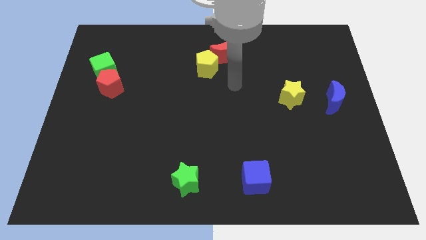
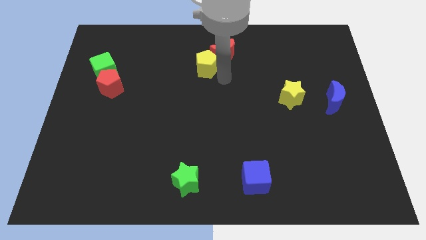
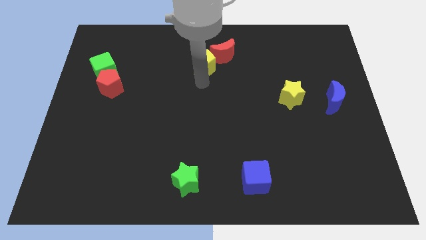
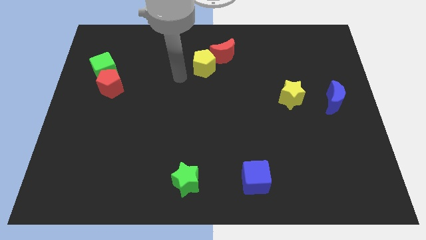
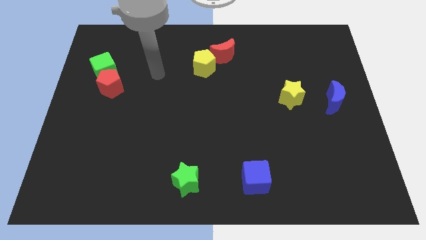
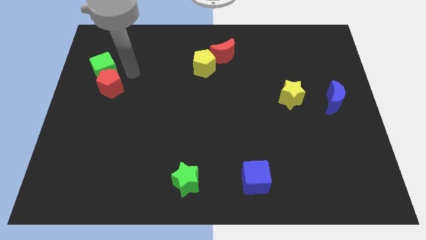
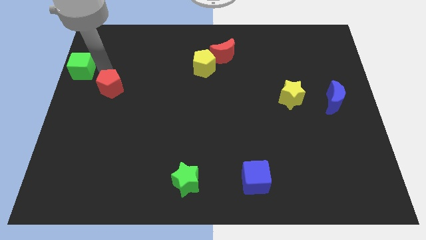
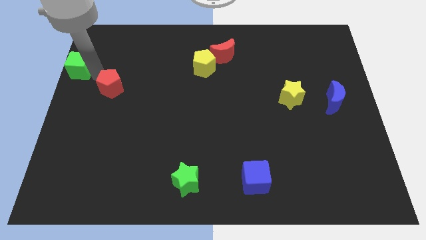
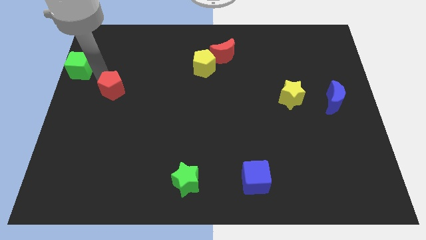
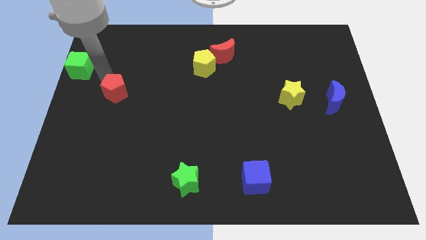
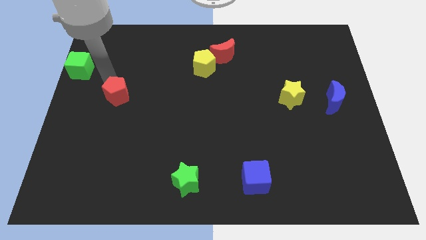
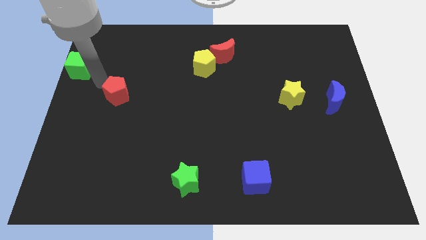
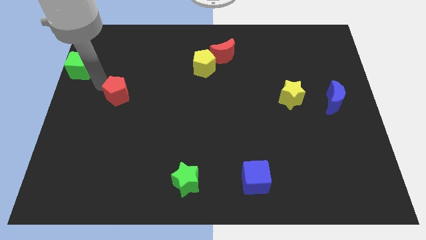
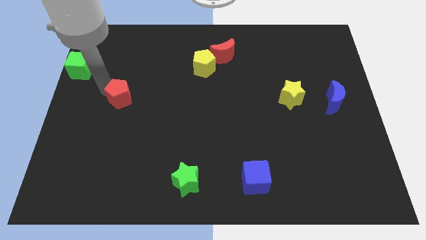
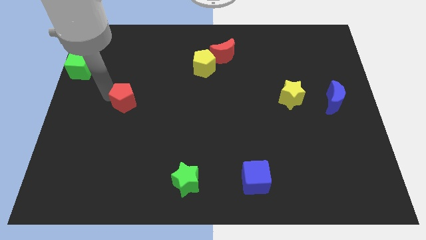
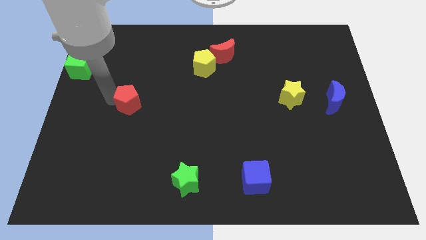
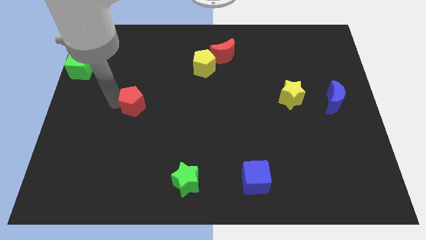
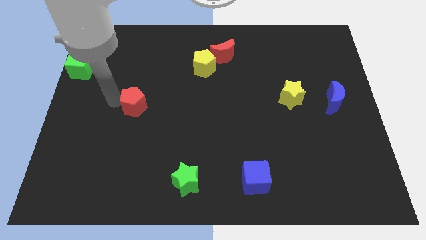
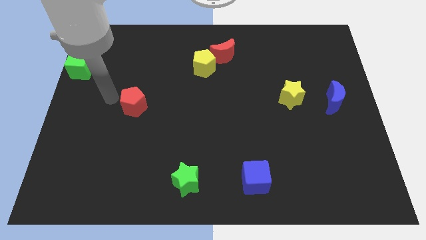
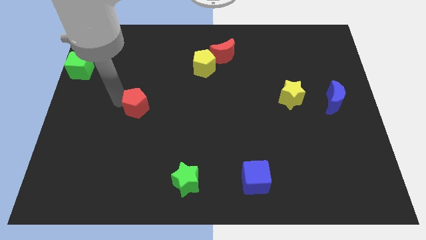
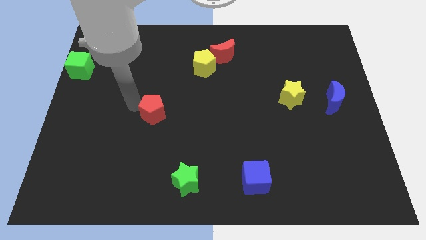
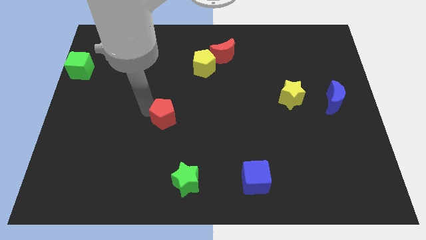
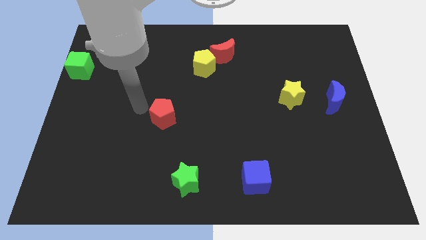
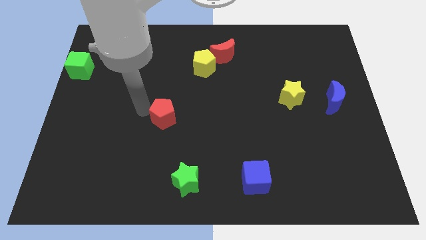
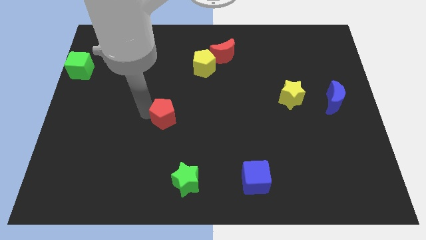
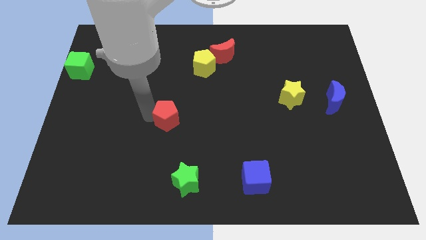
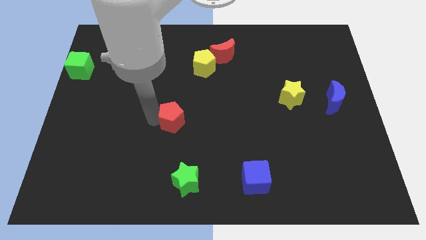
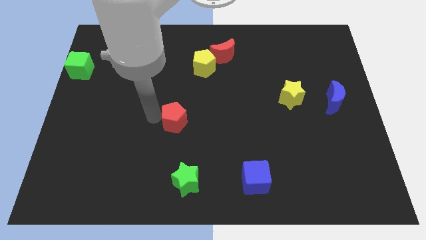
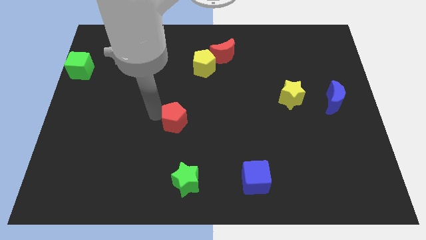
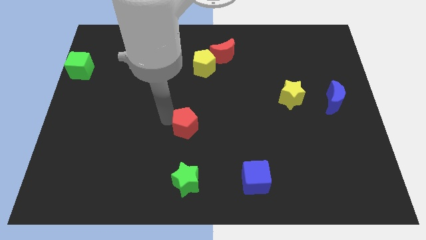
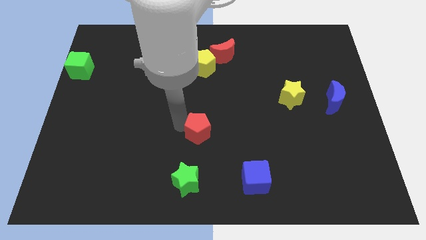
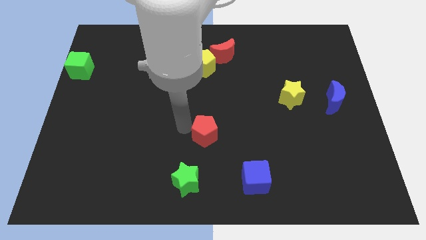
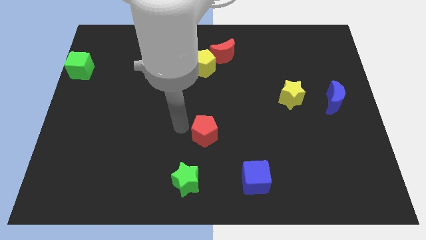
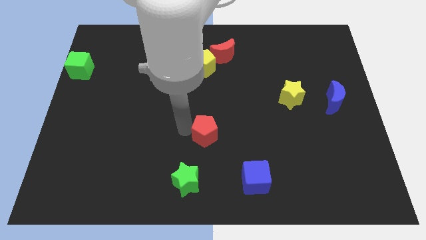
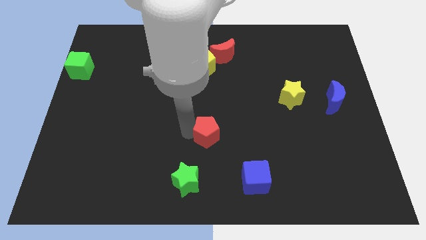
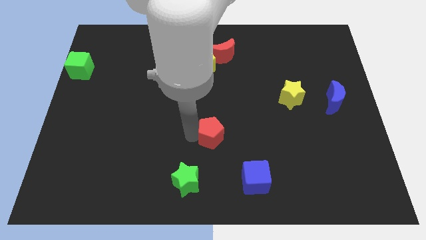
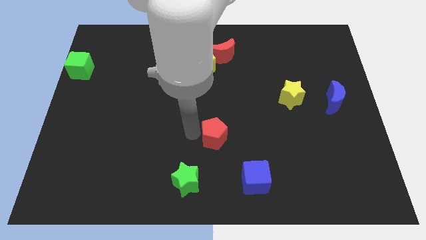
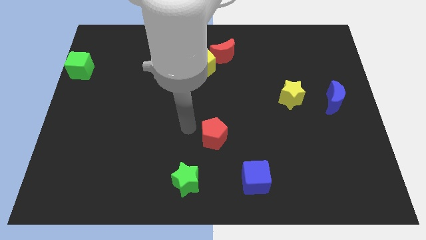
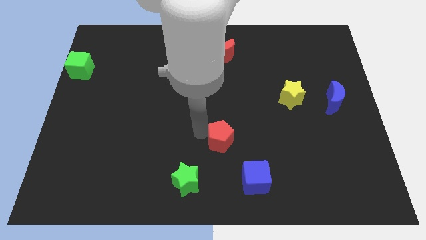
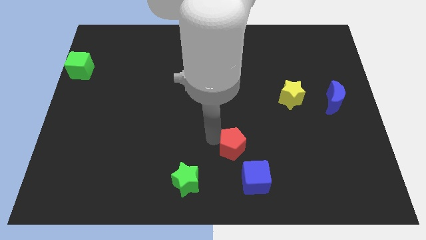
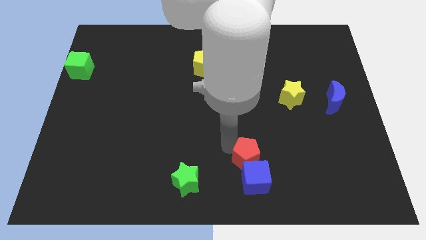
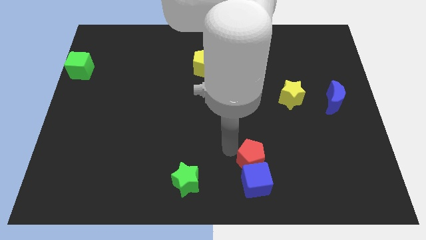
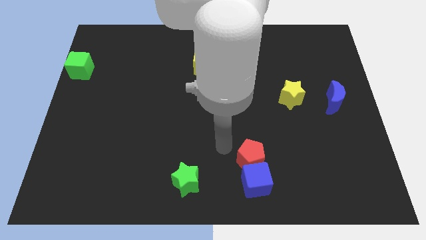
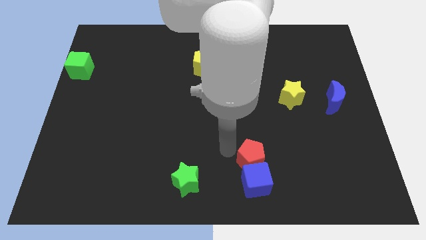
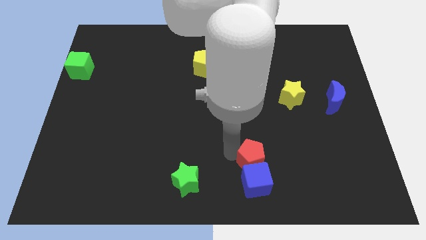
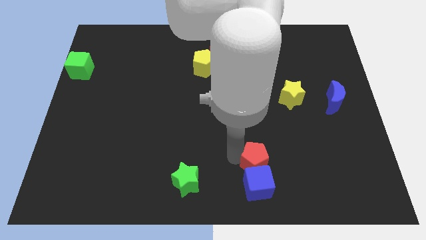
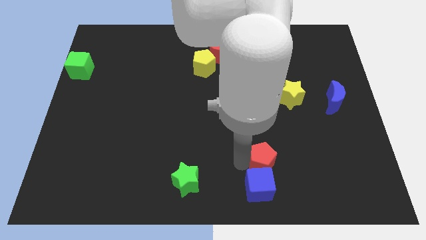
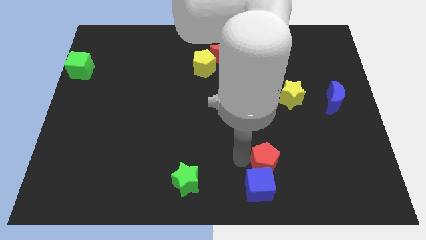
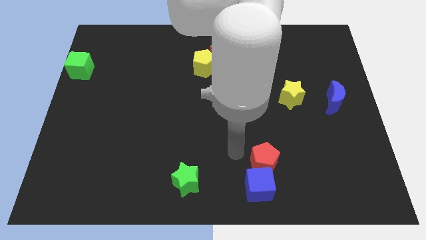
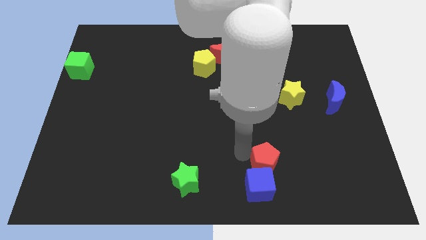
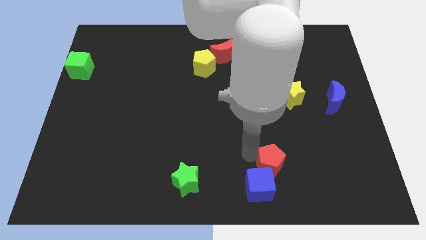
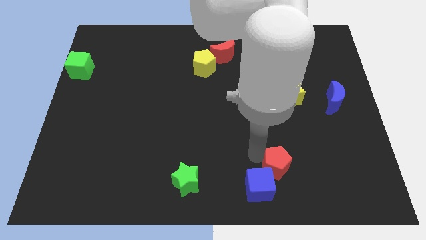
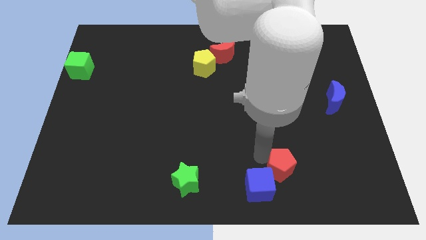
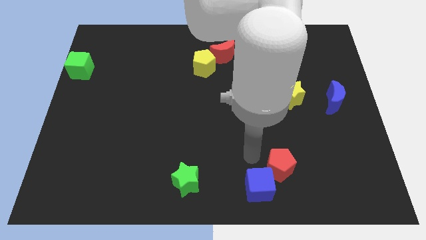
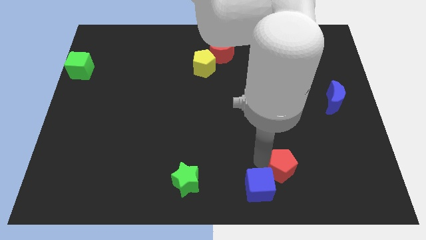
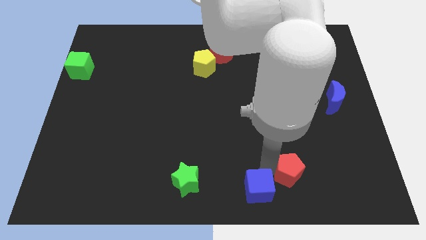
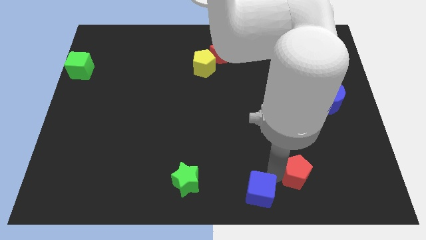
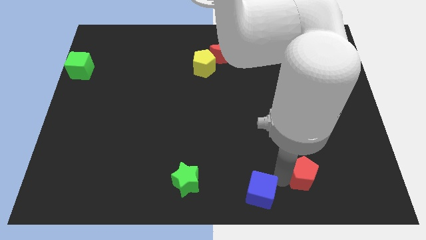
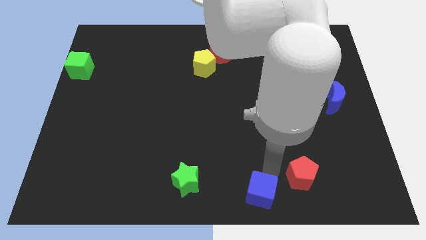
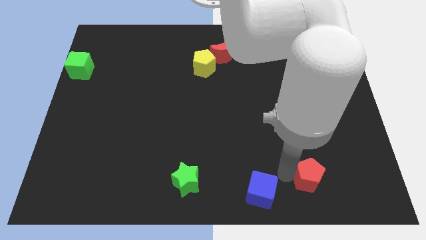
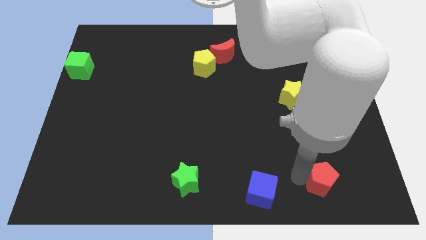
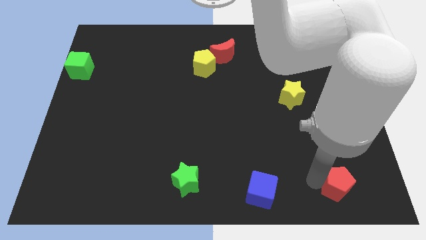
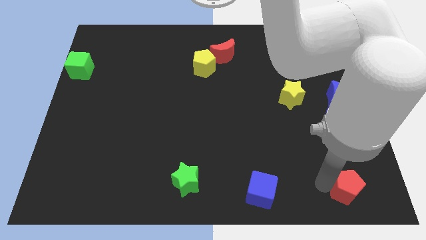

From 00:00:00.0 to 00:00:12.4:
push the red pentagon to the bottom right corner

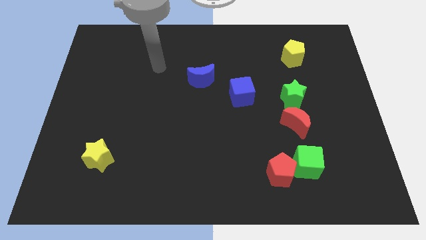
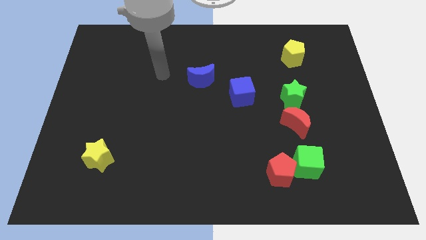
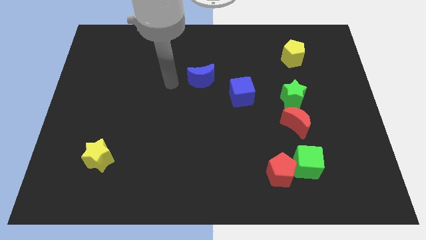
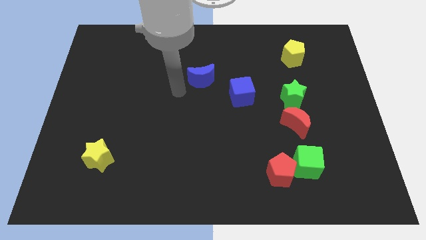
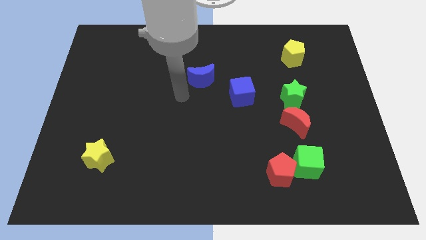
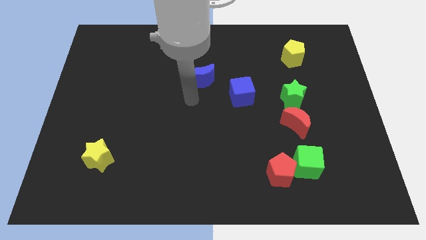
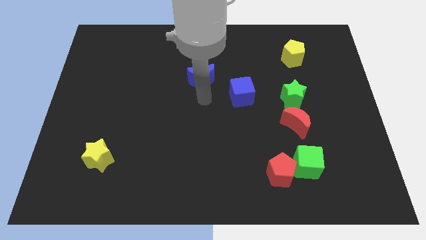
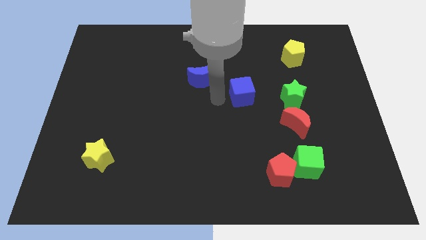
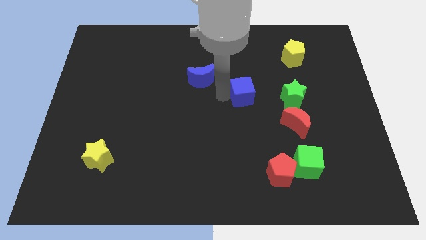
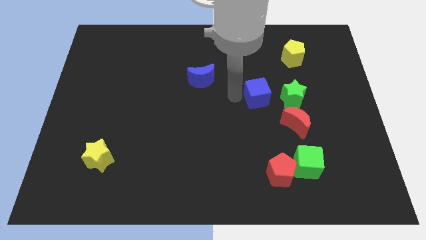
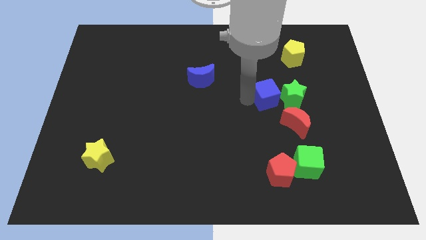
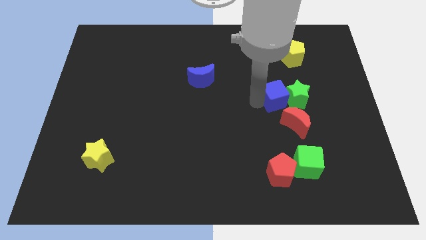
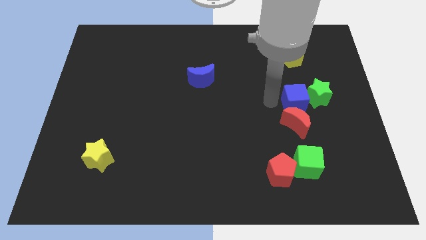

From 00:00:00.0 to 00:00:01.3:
slide the green star to the center right
